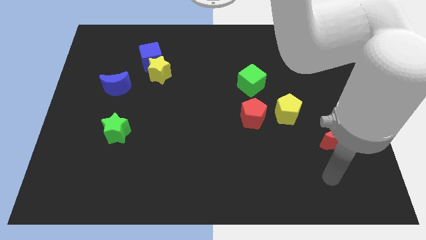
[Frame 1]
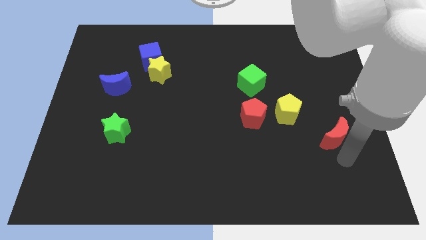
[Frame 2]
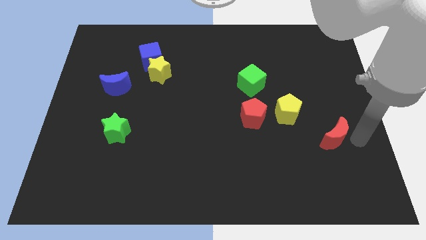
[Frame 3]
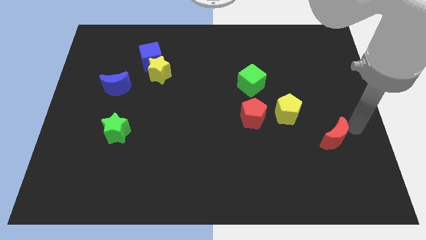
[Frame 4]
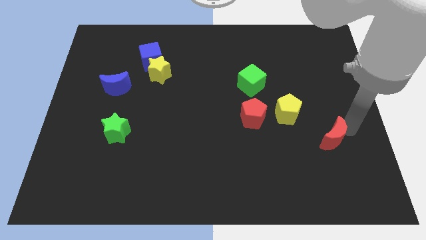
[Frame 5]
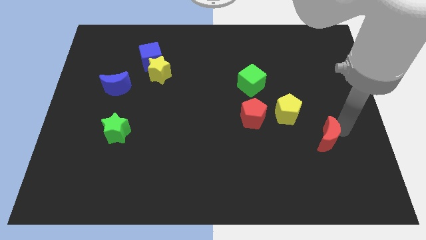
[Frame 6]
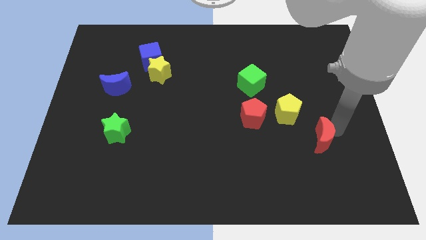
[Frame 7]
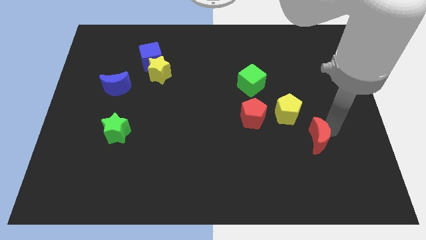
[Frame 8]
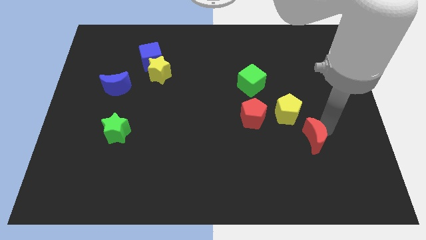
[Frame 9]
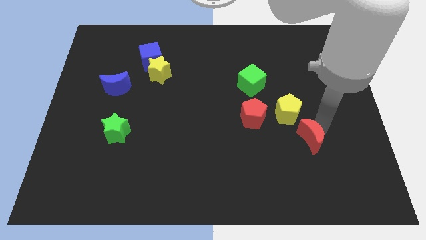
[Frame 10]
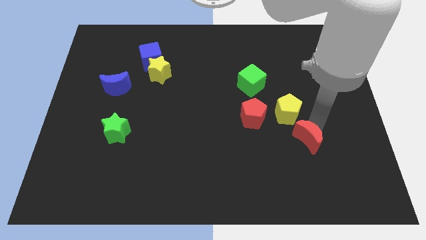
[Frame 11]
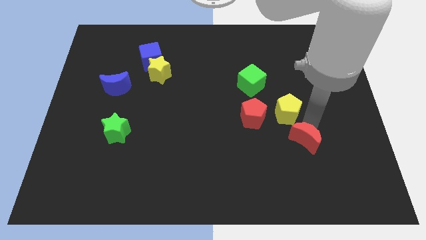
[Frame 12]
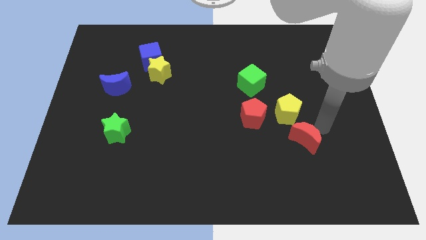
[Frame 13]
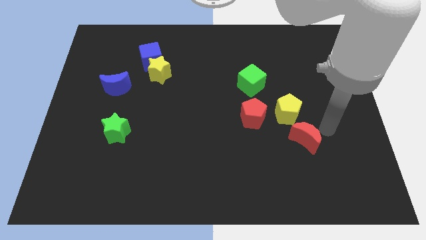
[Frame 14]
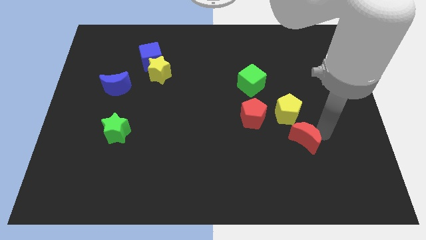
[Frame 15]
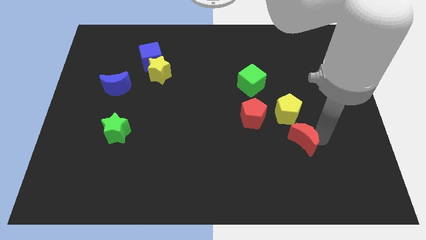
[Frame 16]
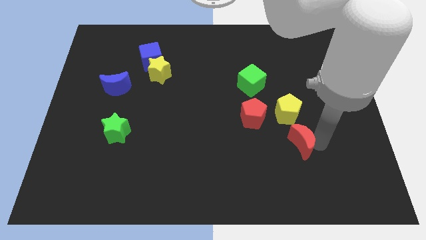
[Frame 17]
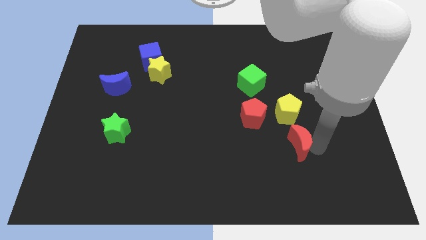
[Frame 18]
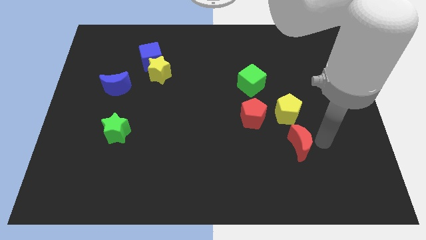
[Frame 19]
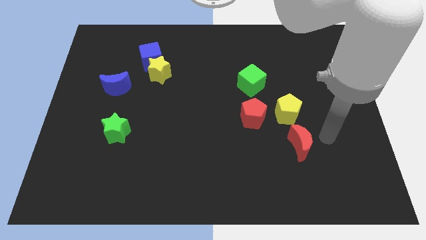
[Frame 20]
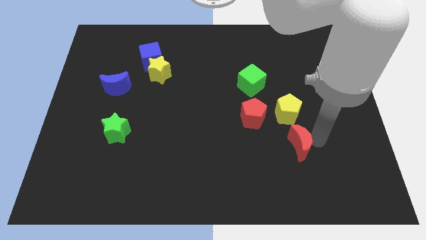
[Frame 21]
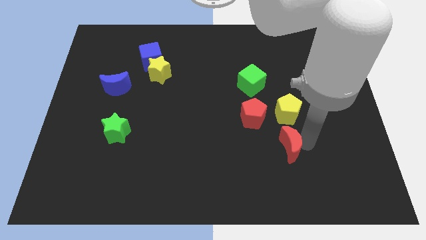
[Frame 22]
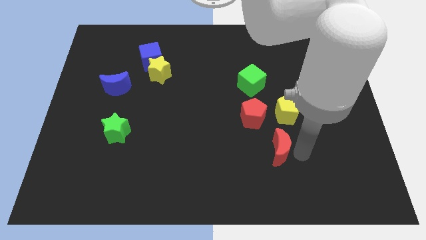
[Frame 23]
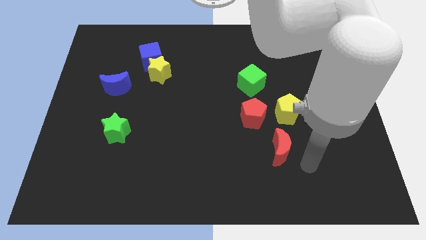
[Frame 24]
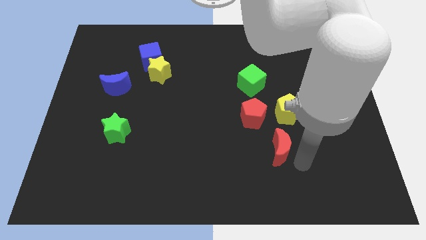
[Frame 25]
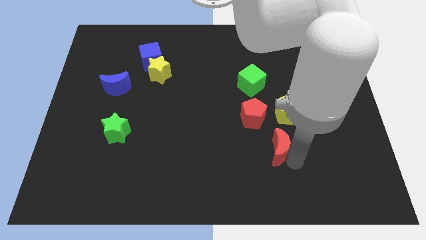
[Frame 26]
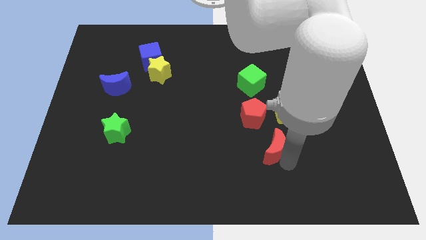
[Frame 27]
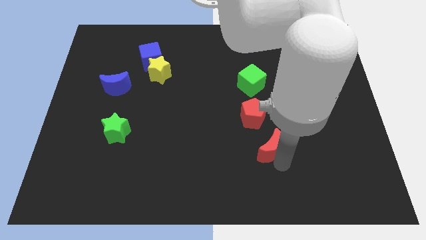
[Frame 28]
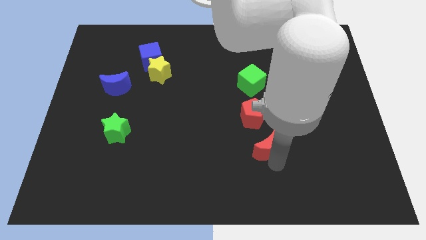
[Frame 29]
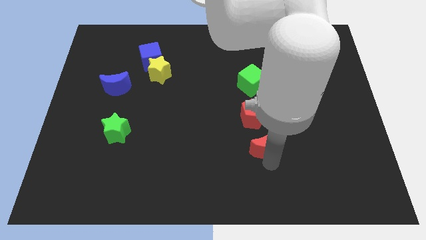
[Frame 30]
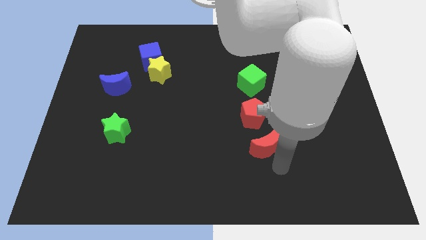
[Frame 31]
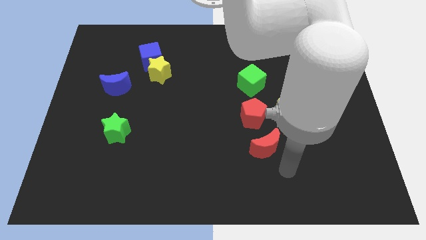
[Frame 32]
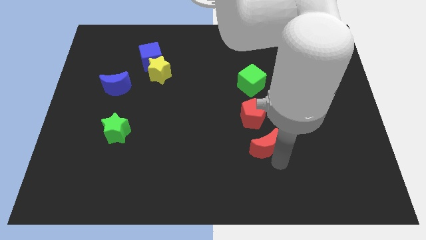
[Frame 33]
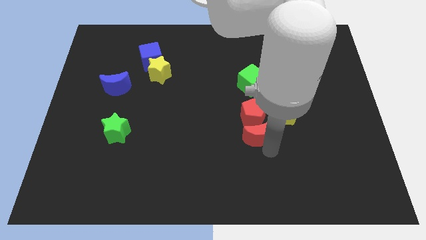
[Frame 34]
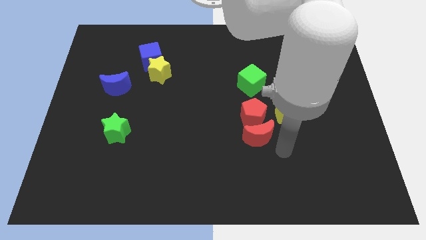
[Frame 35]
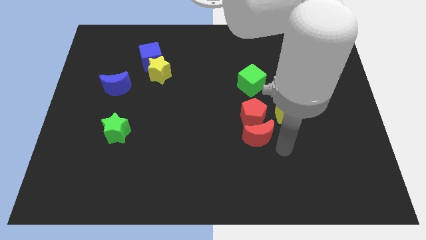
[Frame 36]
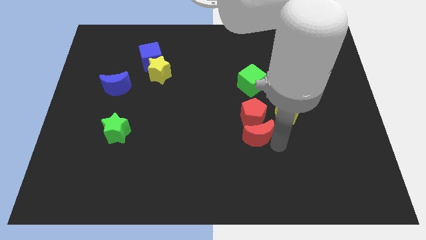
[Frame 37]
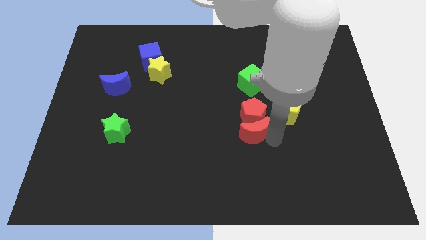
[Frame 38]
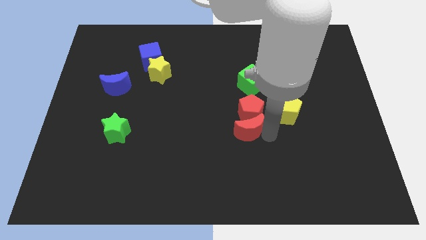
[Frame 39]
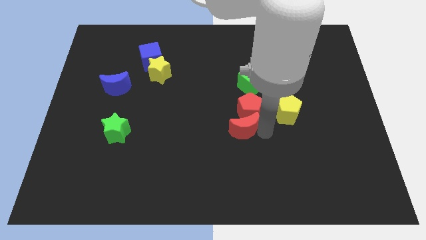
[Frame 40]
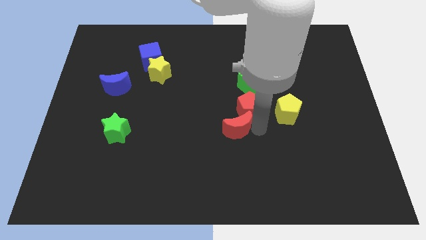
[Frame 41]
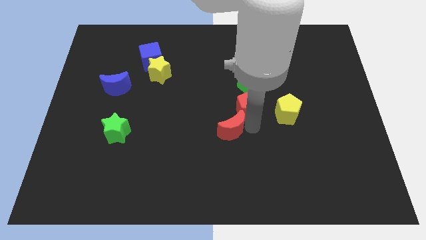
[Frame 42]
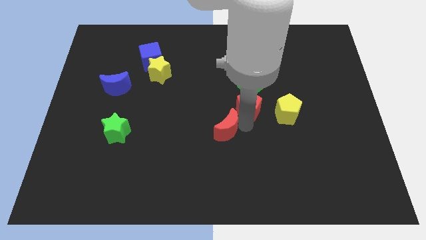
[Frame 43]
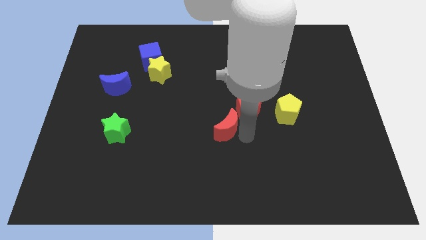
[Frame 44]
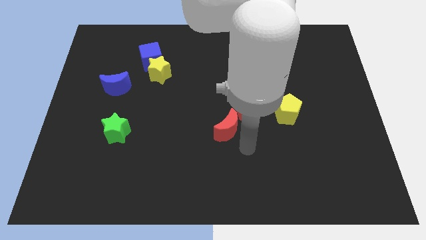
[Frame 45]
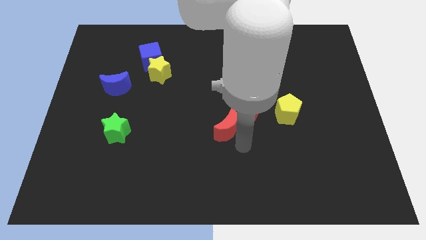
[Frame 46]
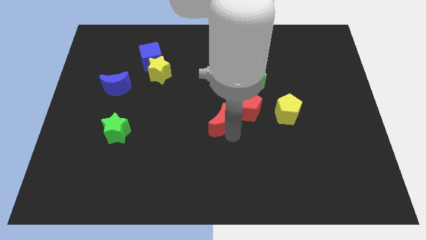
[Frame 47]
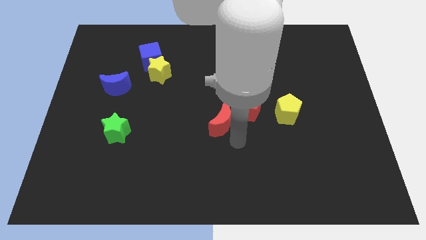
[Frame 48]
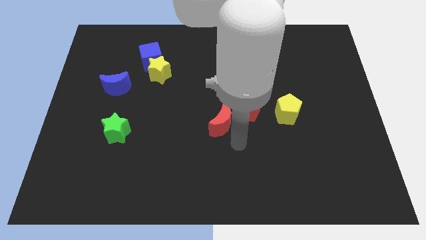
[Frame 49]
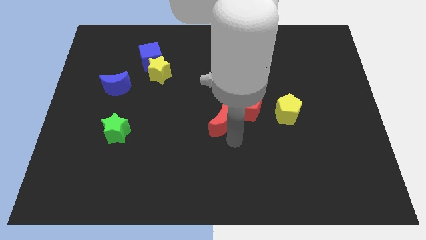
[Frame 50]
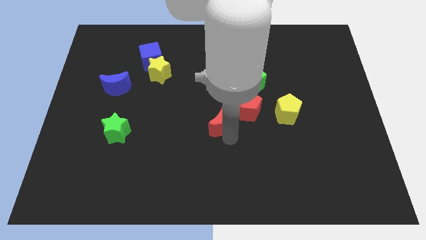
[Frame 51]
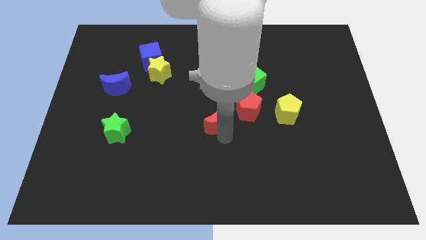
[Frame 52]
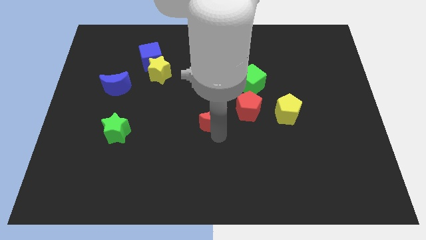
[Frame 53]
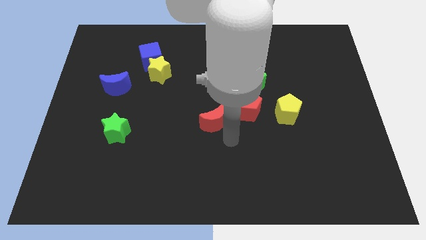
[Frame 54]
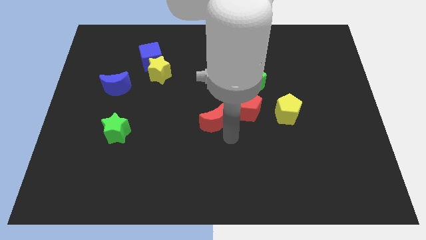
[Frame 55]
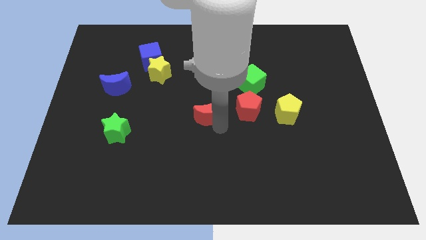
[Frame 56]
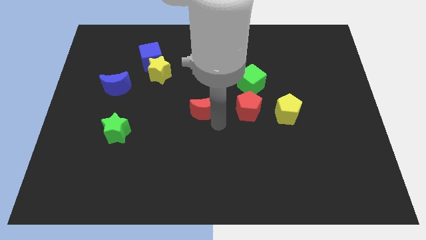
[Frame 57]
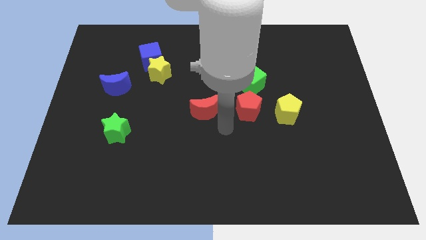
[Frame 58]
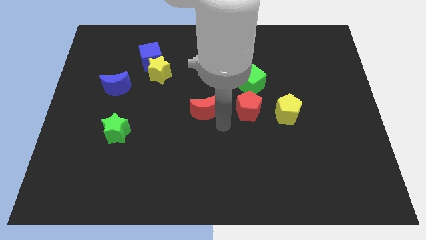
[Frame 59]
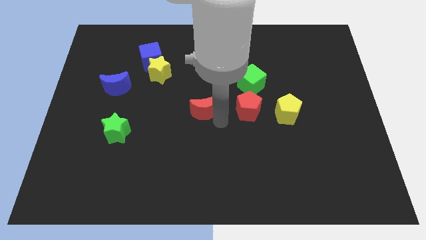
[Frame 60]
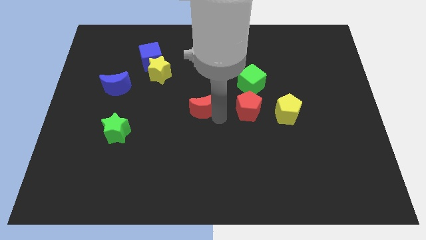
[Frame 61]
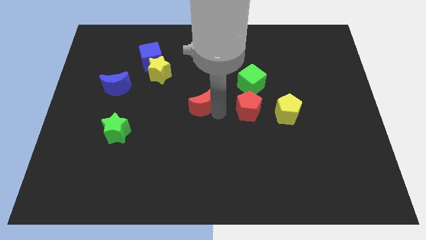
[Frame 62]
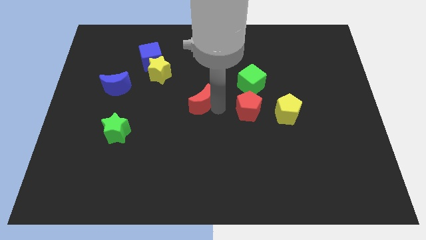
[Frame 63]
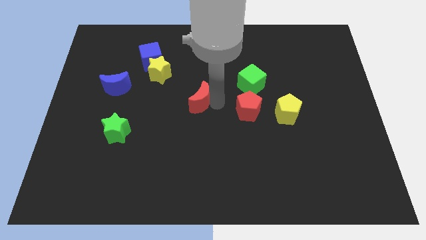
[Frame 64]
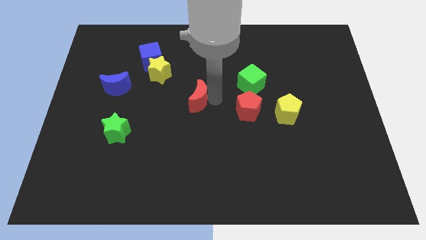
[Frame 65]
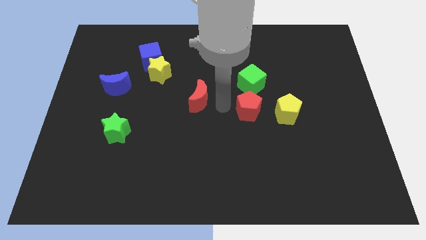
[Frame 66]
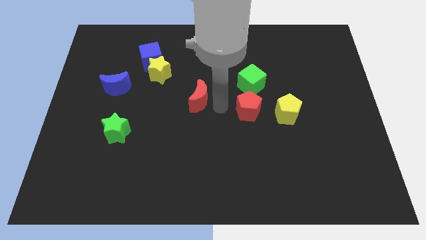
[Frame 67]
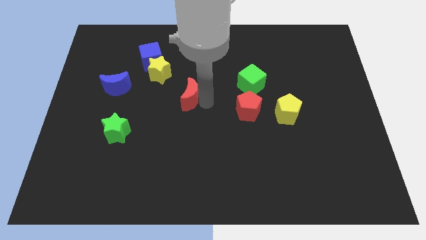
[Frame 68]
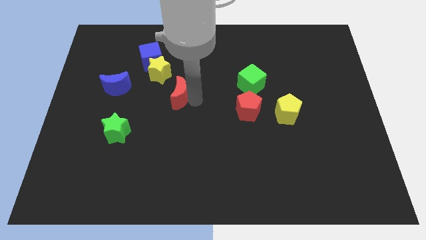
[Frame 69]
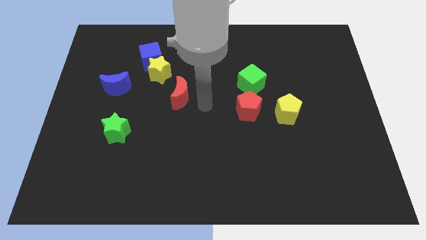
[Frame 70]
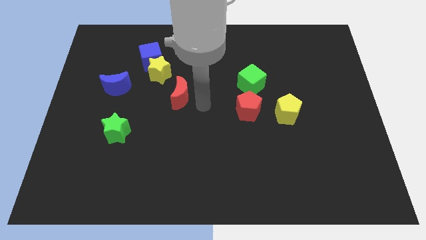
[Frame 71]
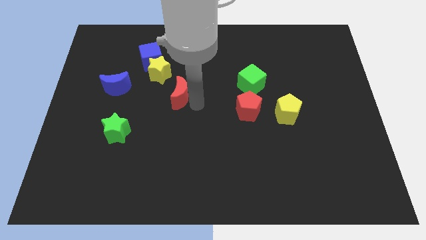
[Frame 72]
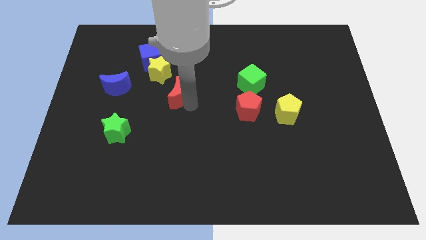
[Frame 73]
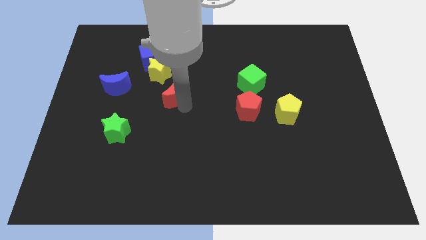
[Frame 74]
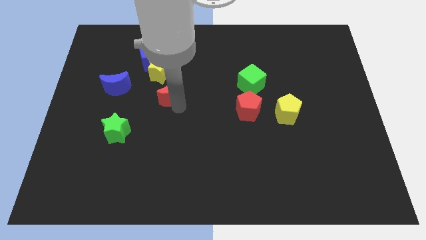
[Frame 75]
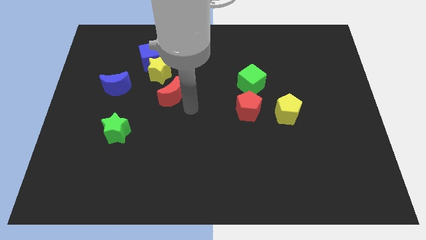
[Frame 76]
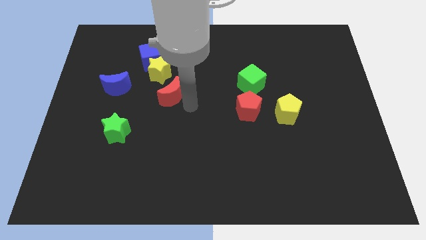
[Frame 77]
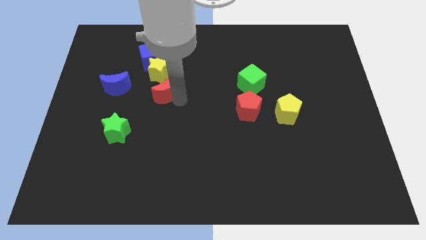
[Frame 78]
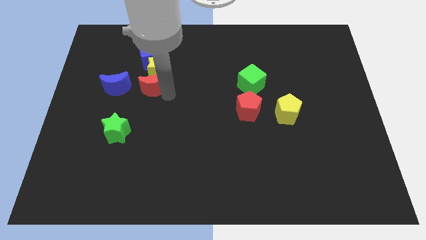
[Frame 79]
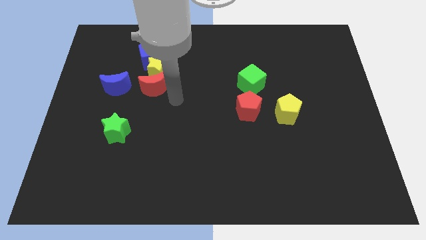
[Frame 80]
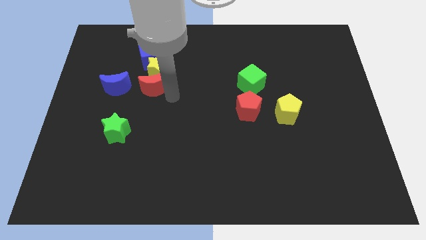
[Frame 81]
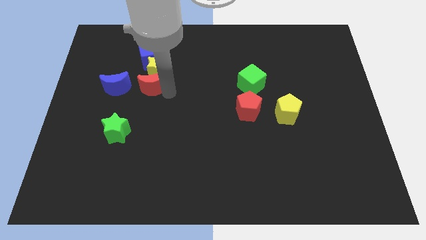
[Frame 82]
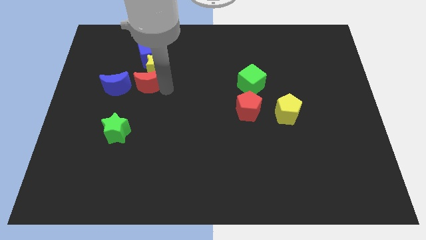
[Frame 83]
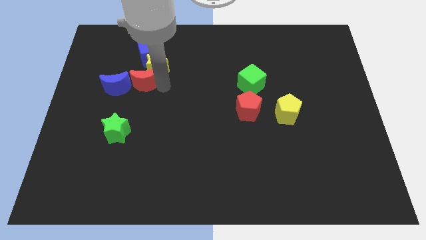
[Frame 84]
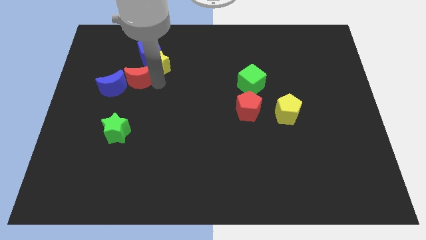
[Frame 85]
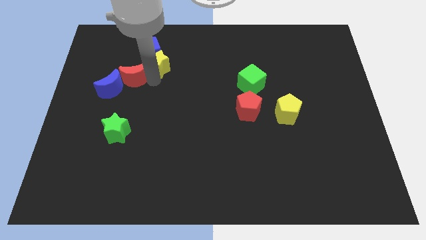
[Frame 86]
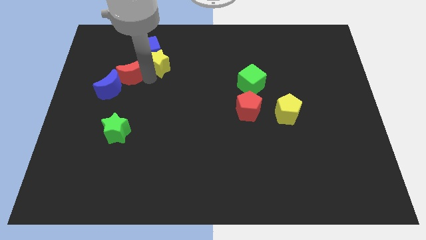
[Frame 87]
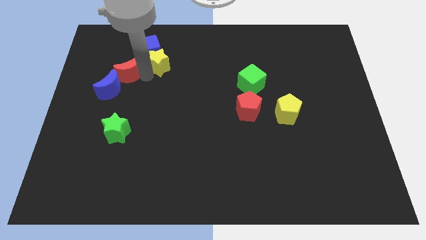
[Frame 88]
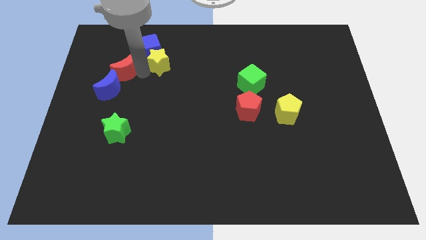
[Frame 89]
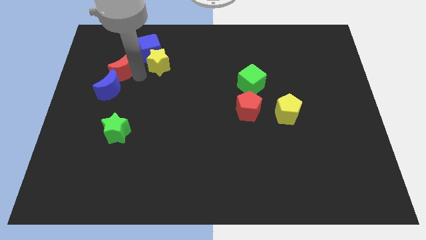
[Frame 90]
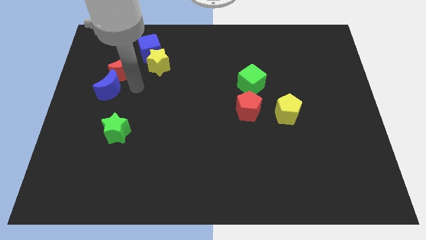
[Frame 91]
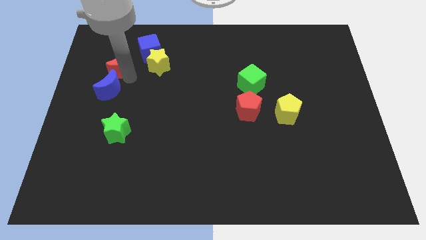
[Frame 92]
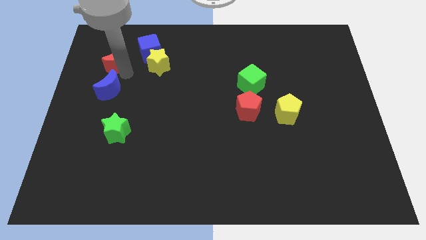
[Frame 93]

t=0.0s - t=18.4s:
slide the red moon left of the blue cube
